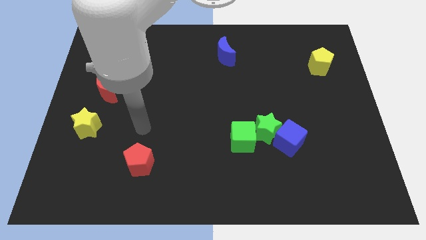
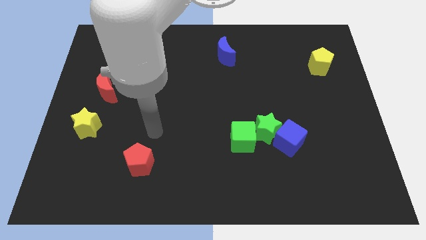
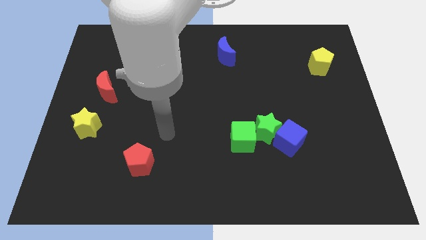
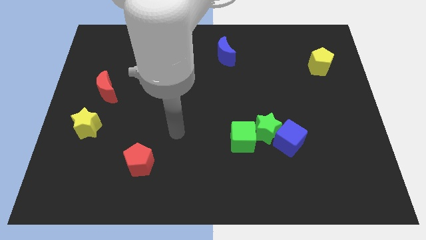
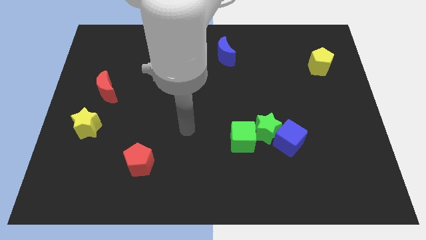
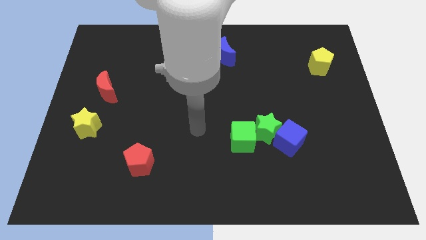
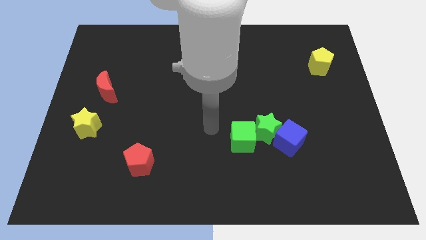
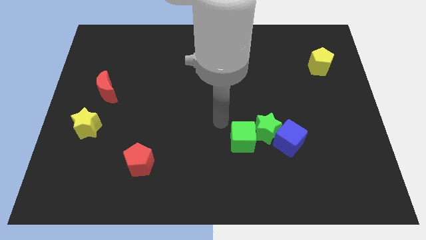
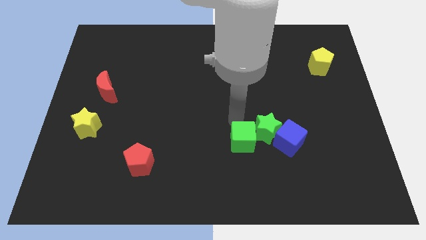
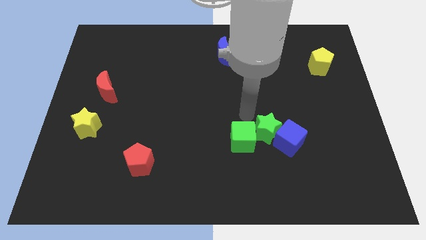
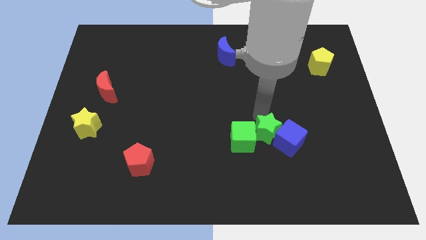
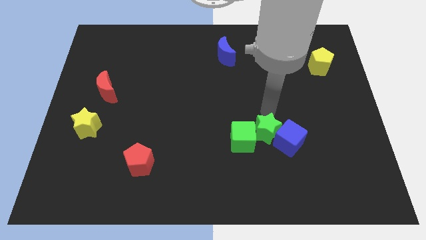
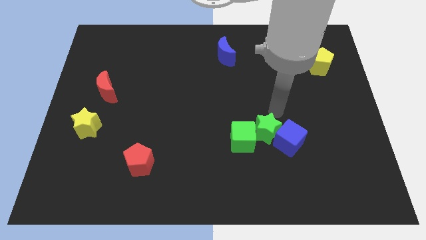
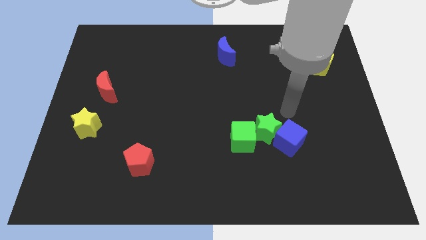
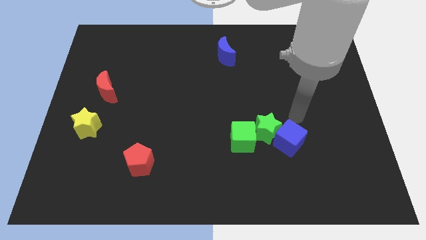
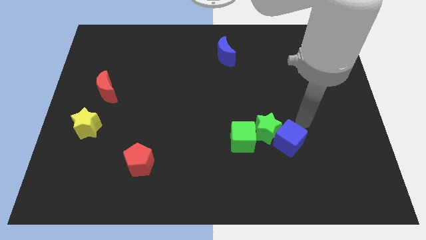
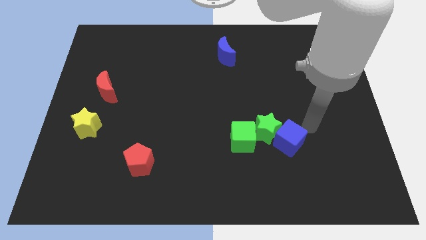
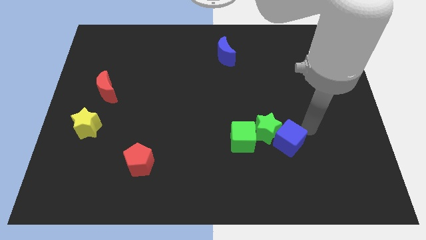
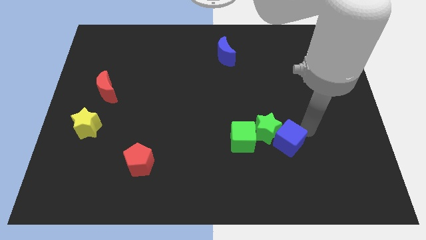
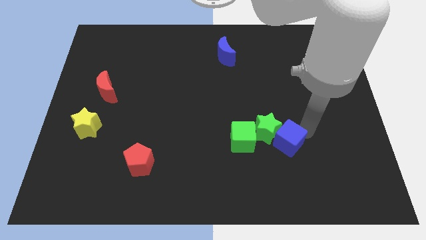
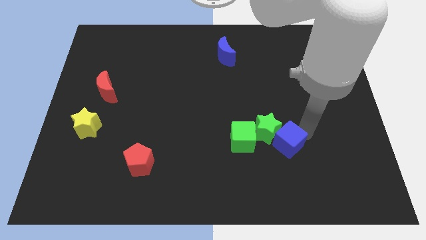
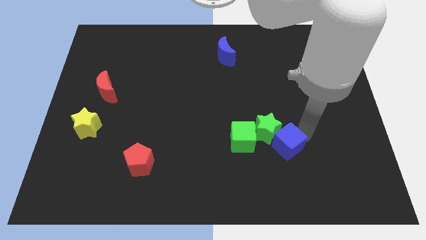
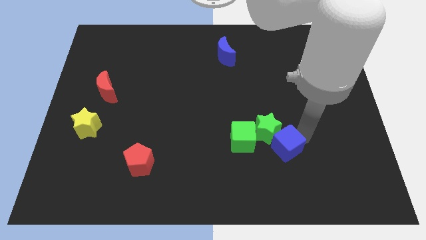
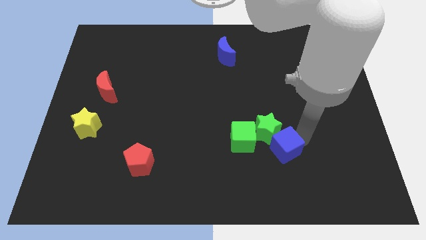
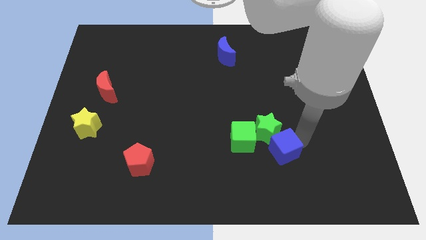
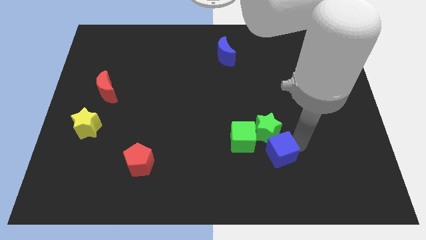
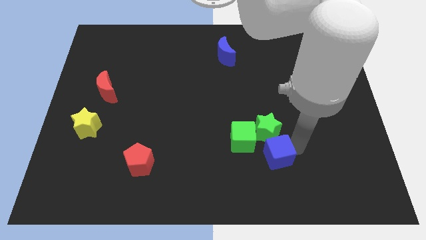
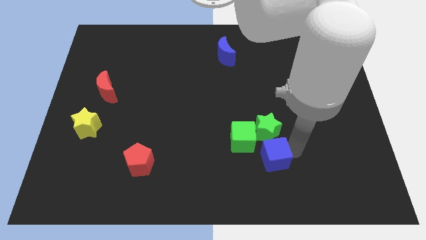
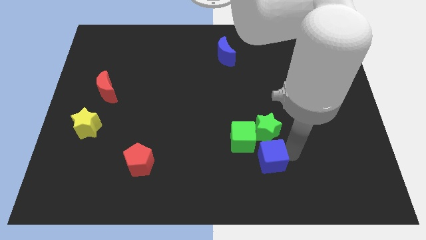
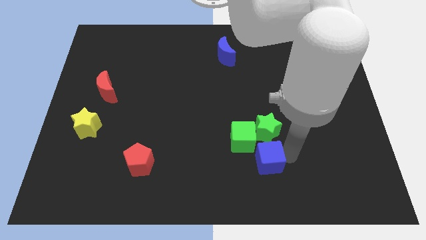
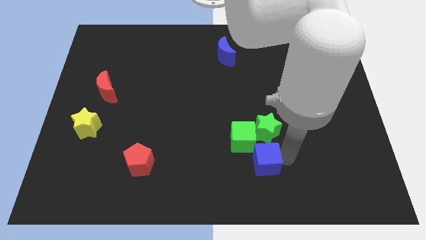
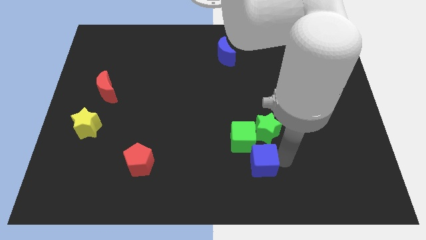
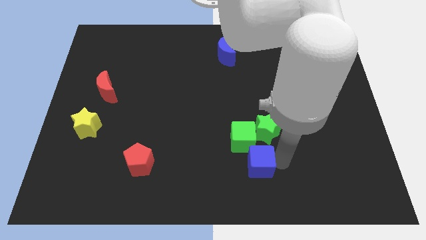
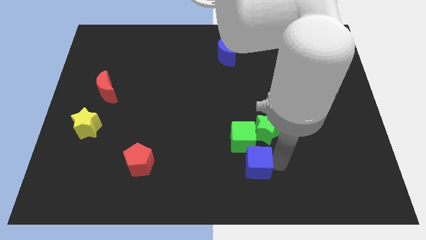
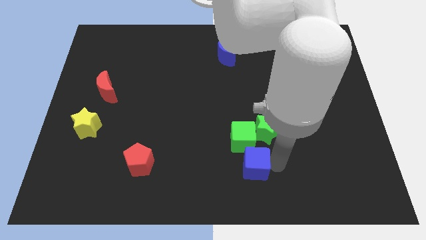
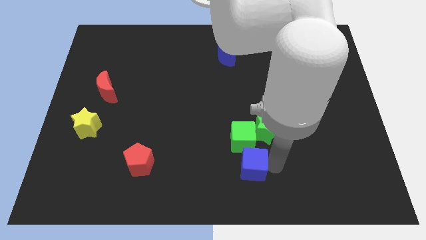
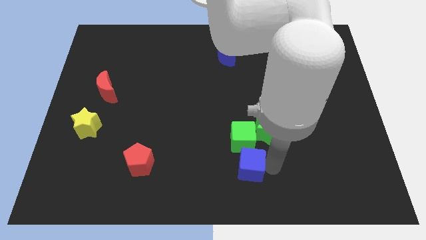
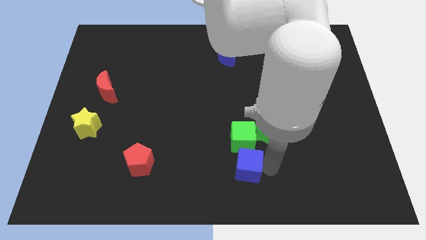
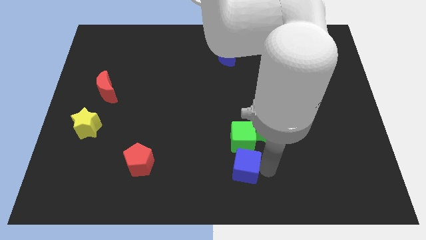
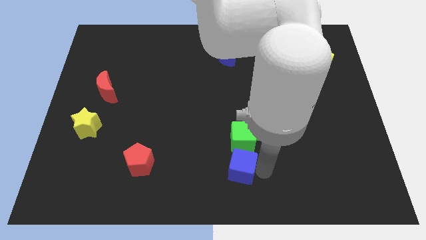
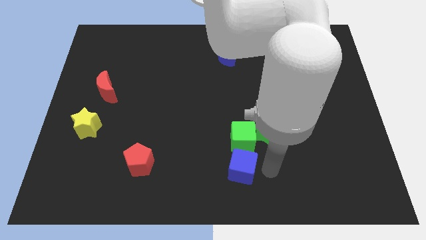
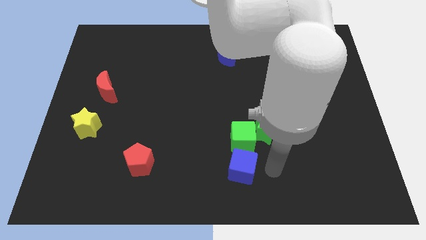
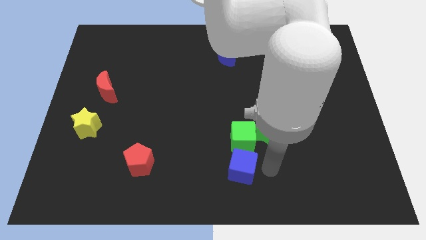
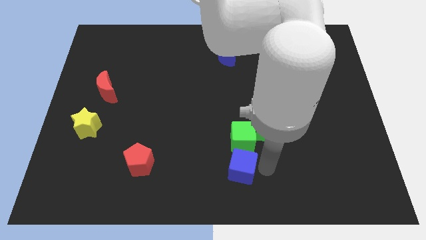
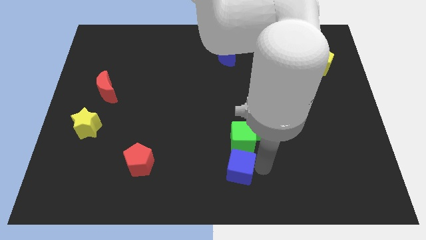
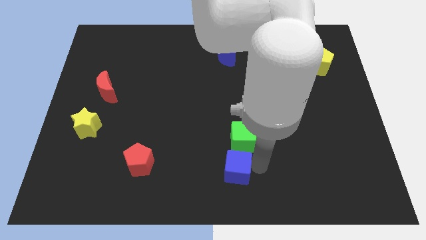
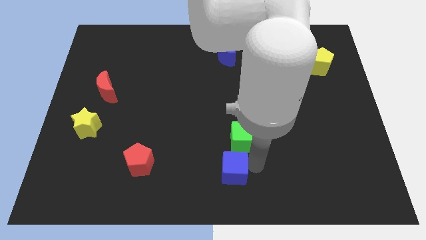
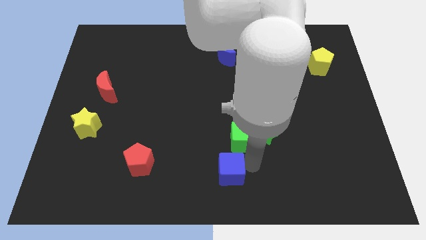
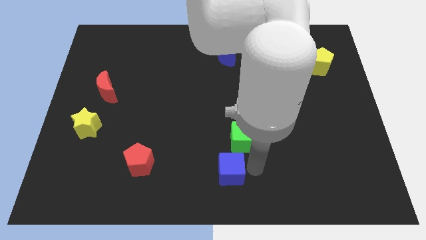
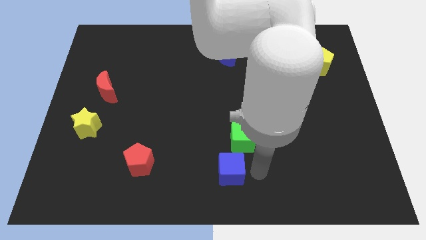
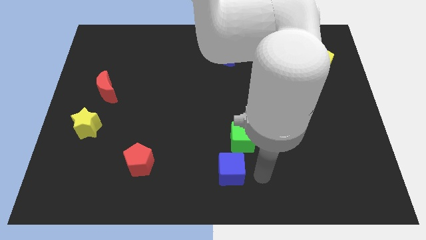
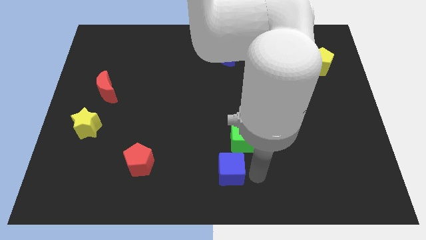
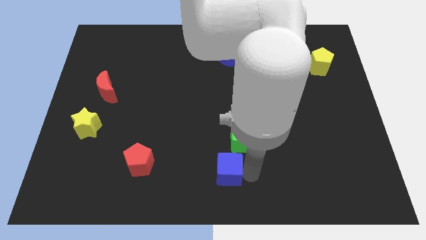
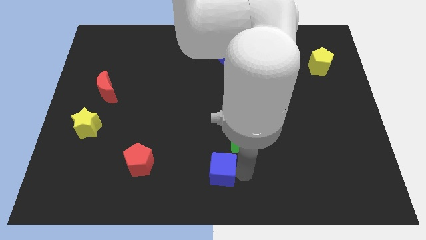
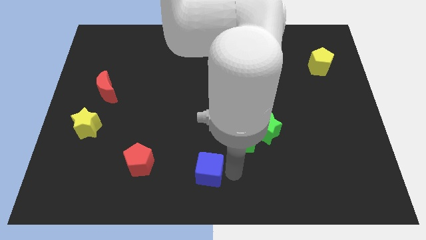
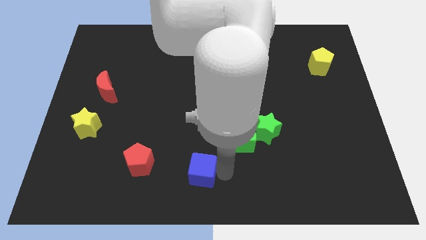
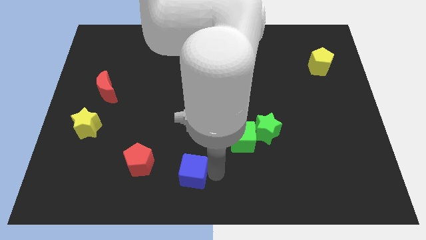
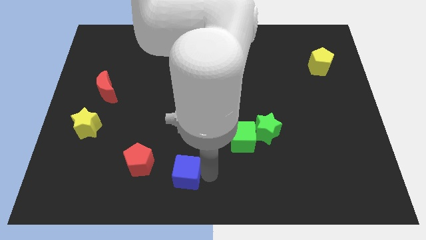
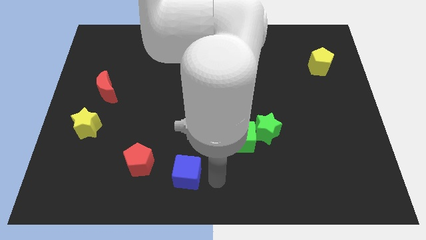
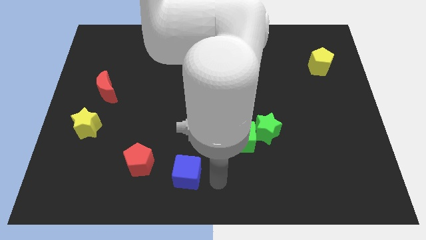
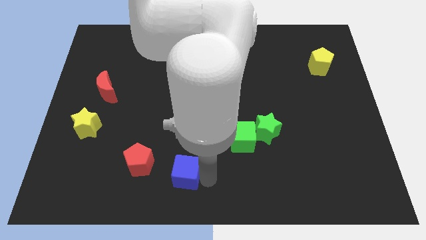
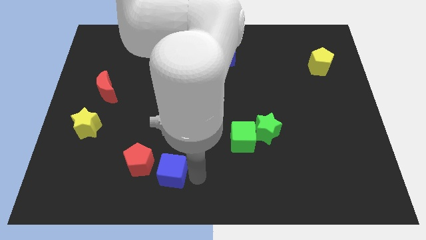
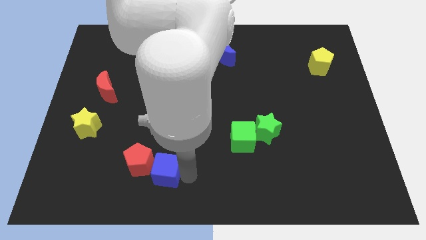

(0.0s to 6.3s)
push the blue cube towards the red pentagon
